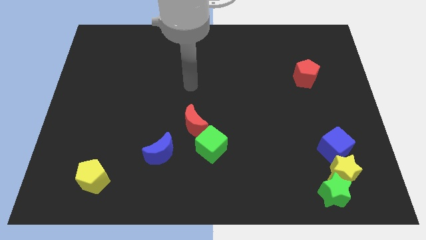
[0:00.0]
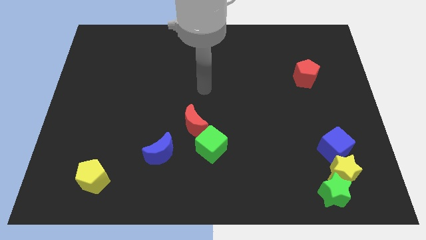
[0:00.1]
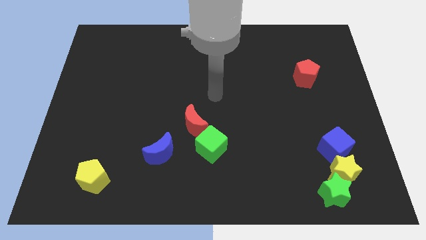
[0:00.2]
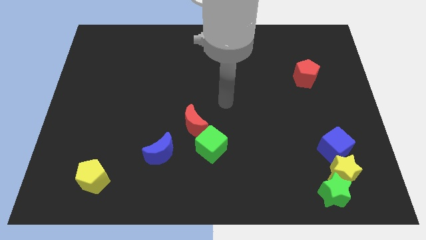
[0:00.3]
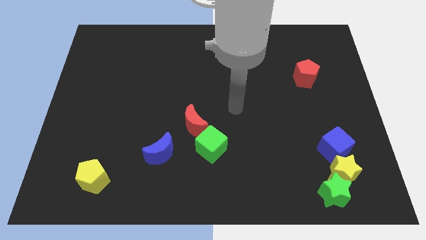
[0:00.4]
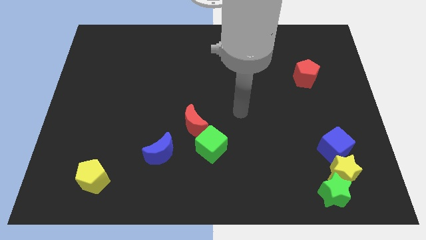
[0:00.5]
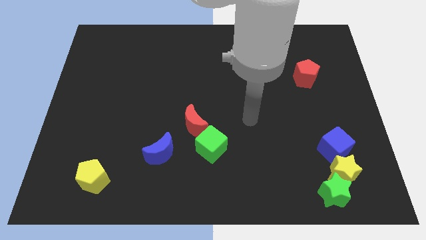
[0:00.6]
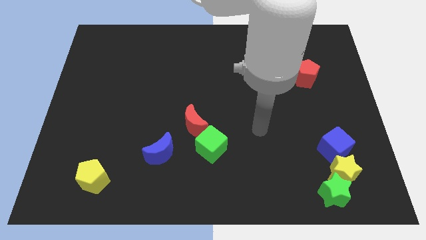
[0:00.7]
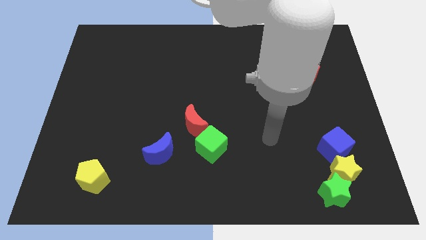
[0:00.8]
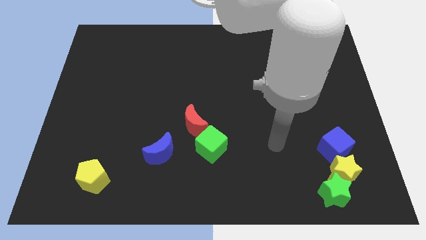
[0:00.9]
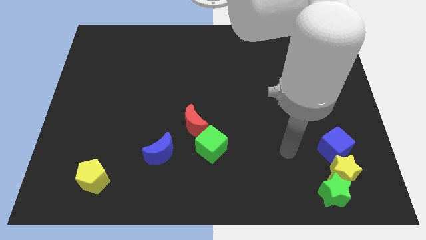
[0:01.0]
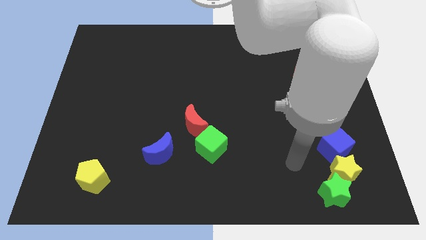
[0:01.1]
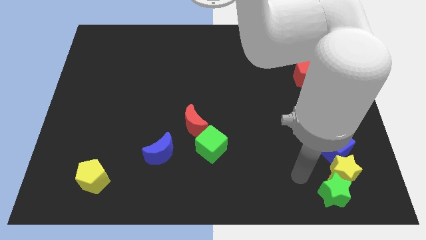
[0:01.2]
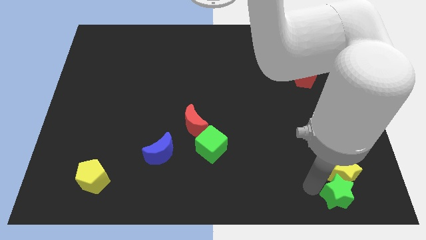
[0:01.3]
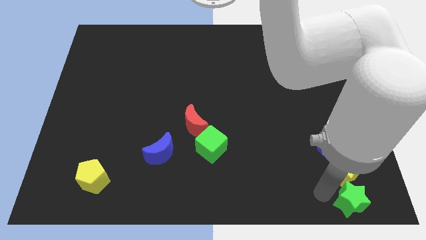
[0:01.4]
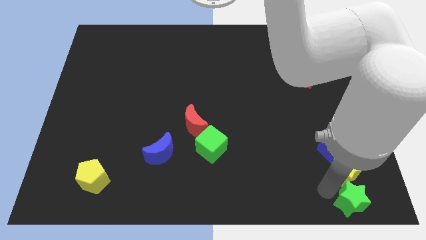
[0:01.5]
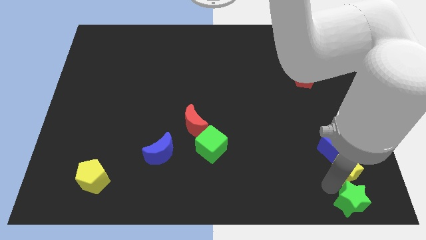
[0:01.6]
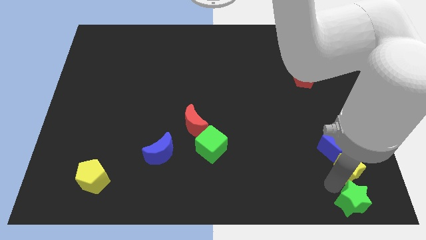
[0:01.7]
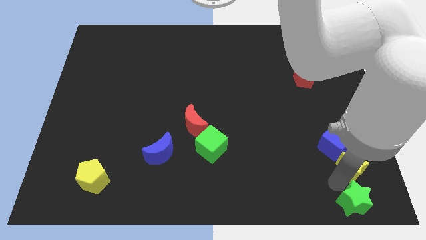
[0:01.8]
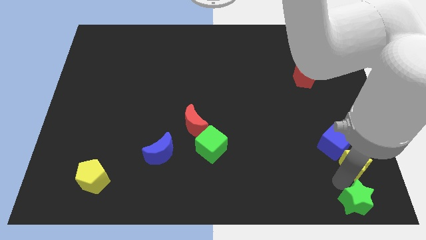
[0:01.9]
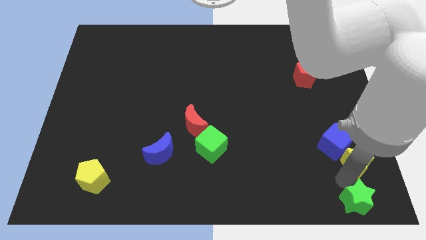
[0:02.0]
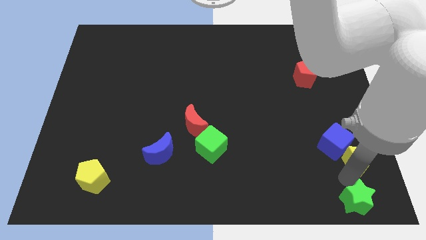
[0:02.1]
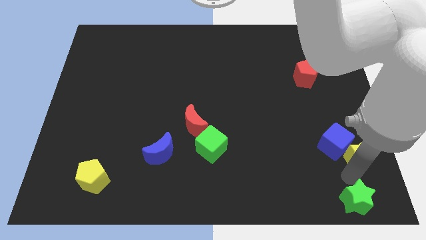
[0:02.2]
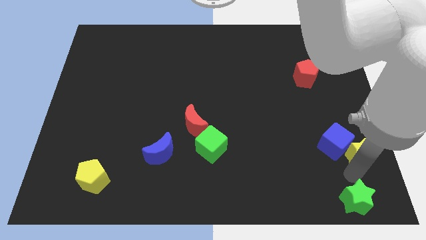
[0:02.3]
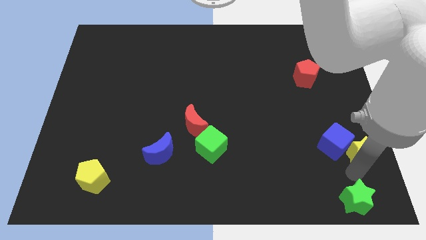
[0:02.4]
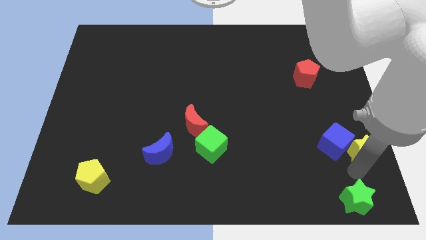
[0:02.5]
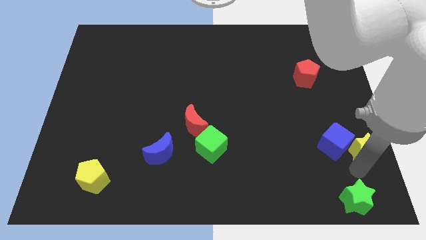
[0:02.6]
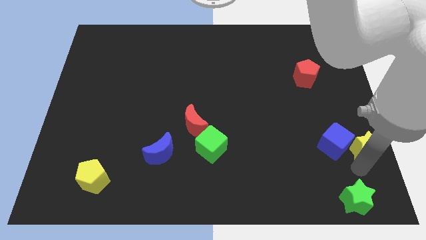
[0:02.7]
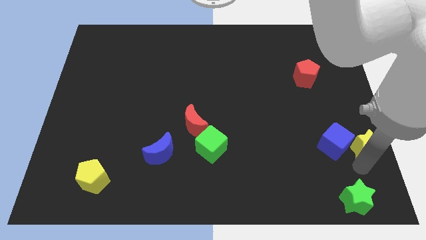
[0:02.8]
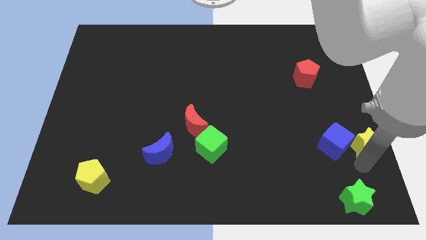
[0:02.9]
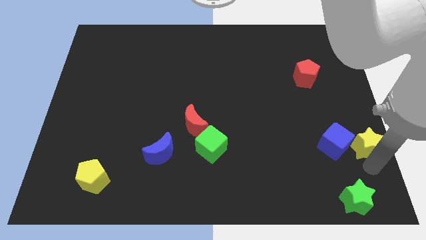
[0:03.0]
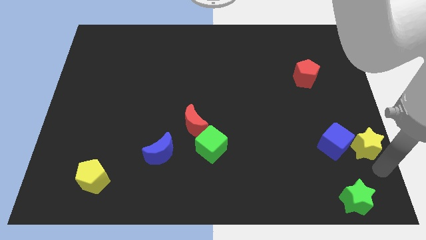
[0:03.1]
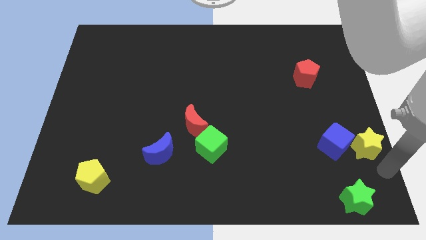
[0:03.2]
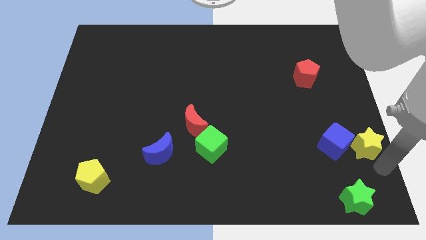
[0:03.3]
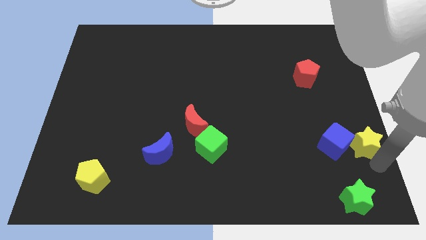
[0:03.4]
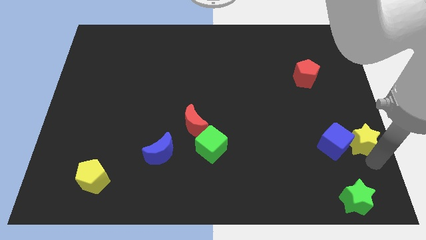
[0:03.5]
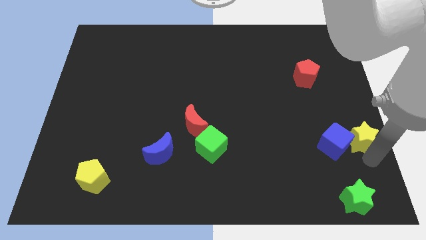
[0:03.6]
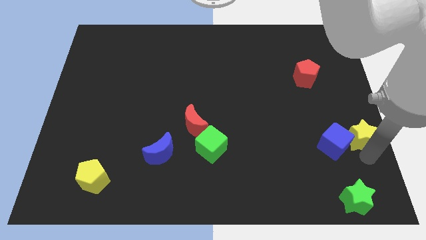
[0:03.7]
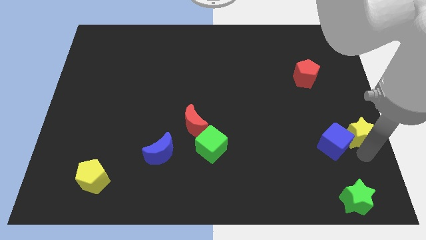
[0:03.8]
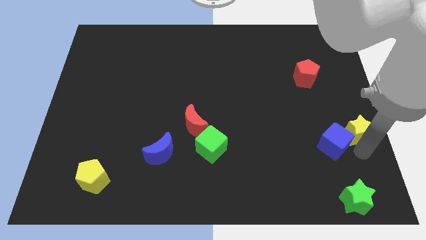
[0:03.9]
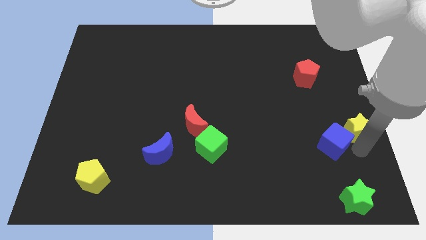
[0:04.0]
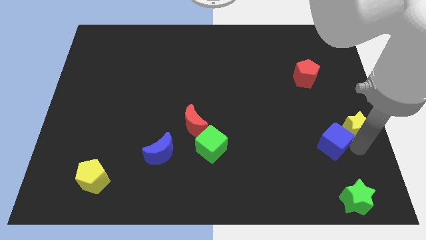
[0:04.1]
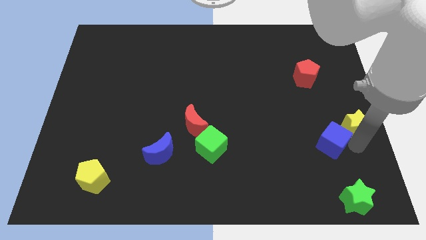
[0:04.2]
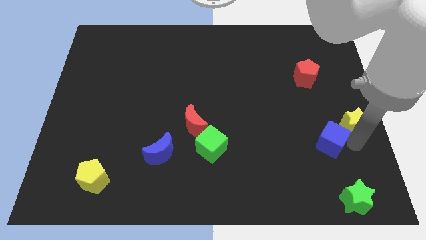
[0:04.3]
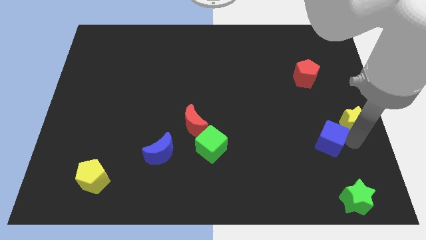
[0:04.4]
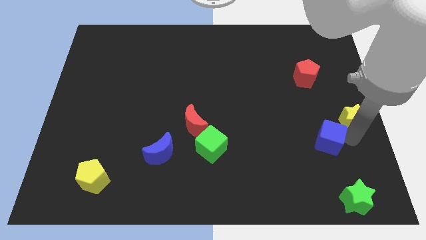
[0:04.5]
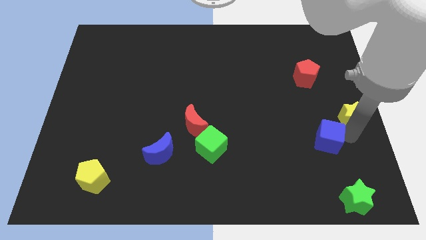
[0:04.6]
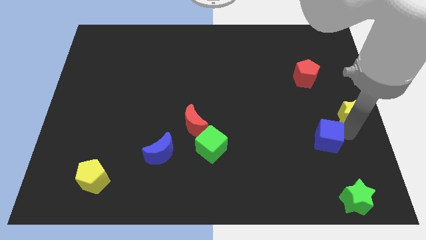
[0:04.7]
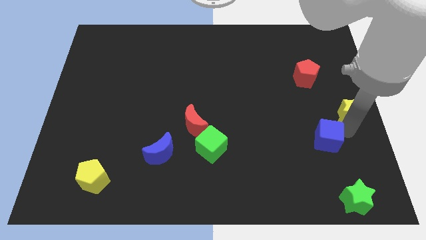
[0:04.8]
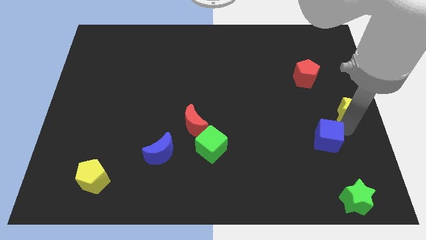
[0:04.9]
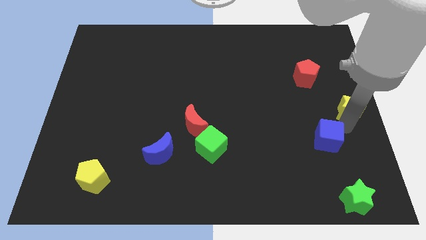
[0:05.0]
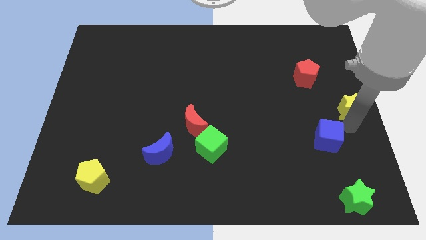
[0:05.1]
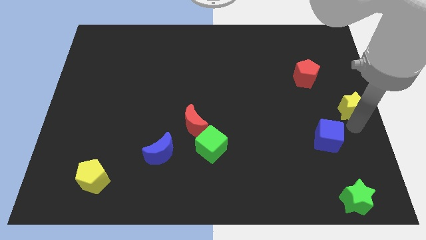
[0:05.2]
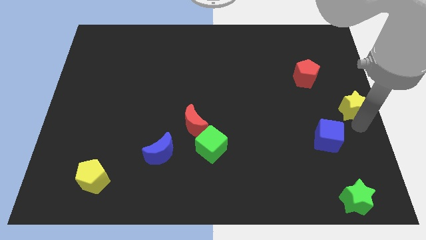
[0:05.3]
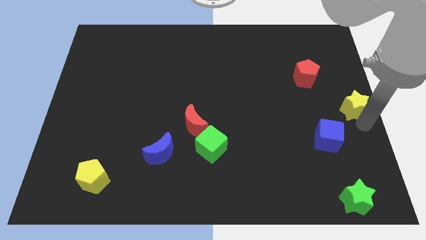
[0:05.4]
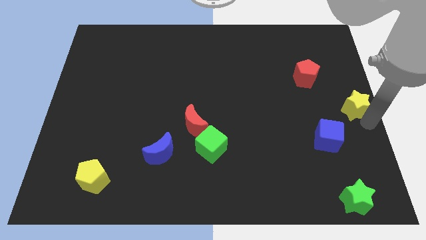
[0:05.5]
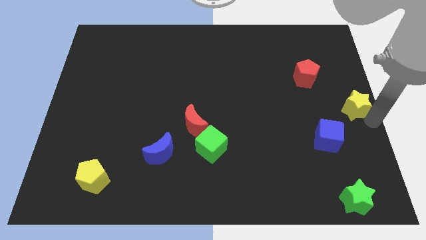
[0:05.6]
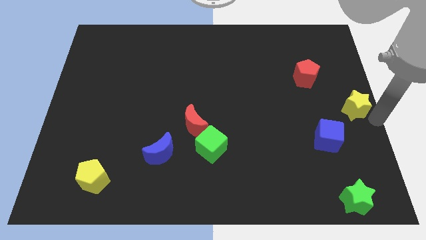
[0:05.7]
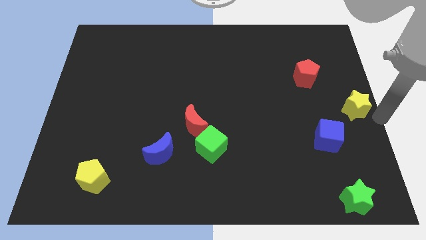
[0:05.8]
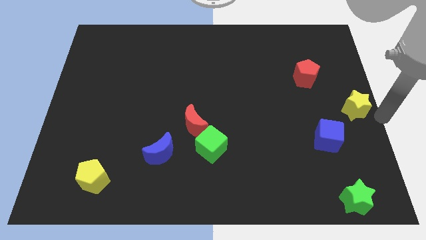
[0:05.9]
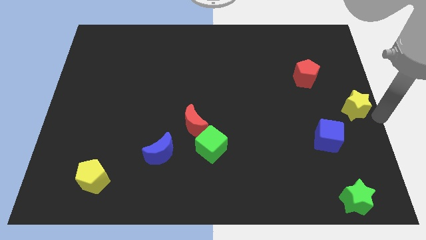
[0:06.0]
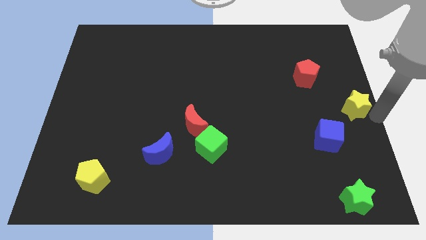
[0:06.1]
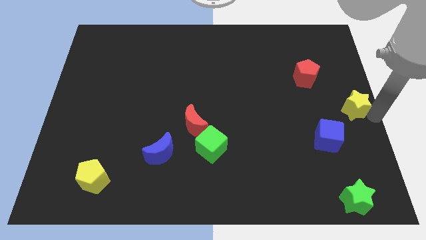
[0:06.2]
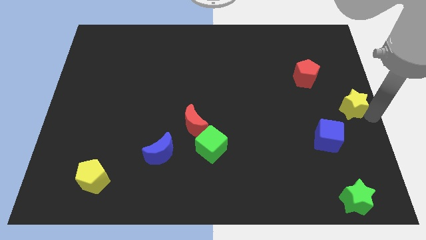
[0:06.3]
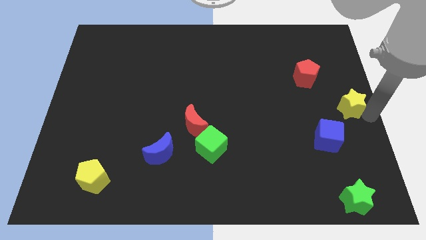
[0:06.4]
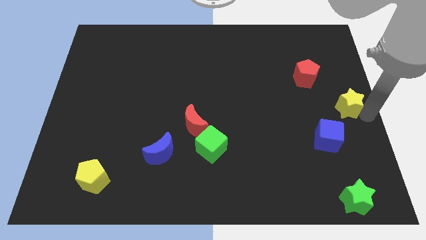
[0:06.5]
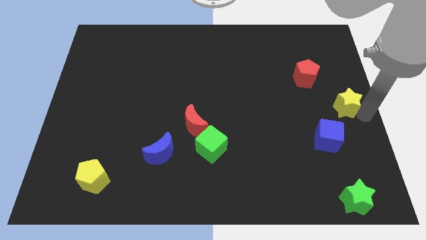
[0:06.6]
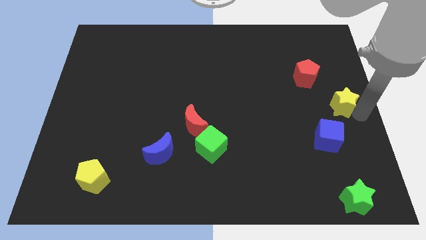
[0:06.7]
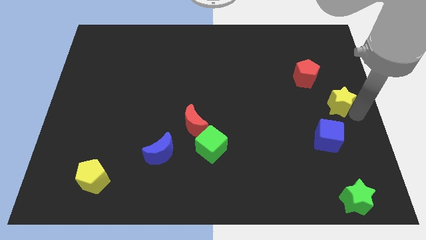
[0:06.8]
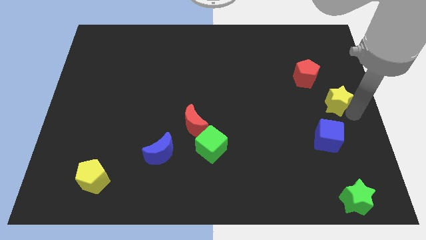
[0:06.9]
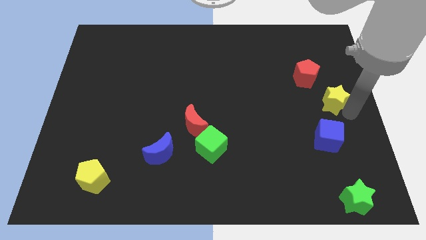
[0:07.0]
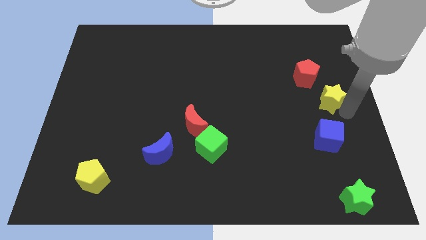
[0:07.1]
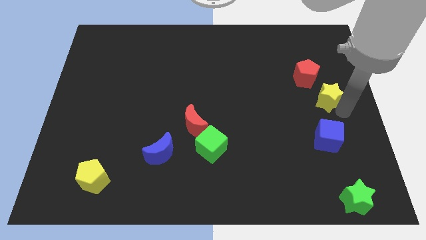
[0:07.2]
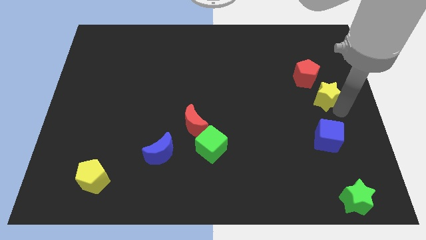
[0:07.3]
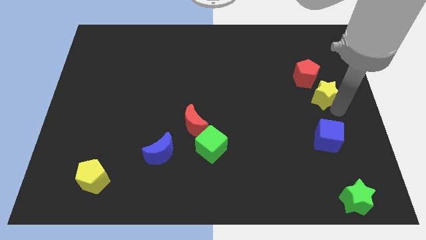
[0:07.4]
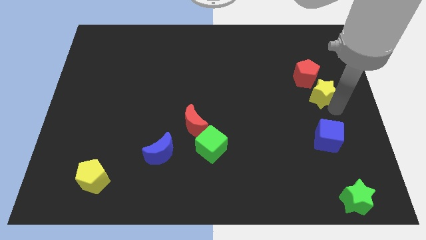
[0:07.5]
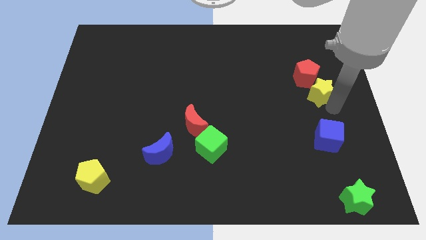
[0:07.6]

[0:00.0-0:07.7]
move the yellow star to the red pentagon
